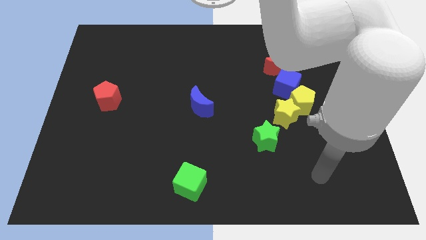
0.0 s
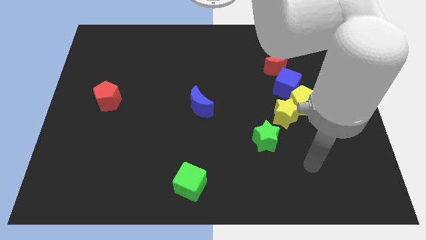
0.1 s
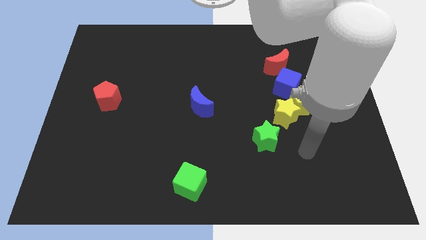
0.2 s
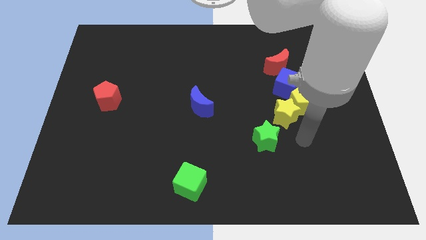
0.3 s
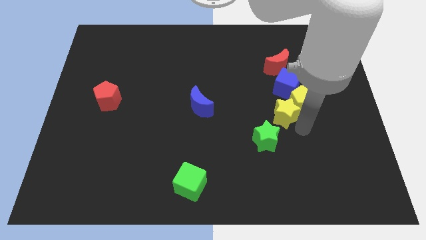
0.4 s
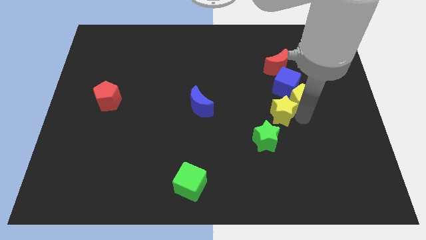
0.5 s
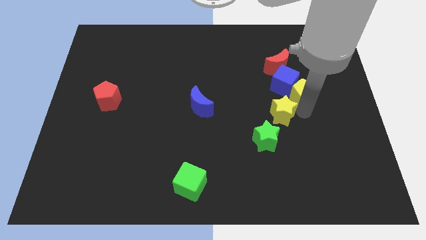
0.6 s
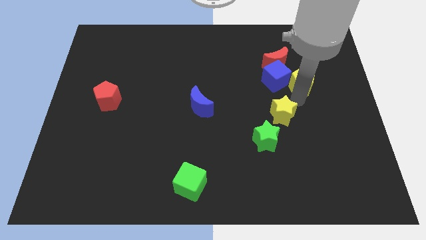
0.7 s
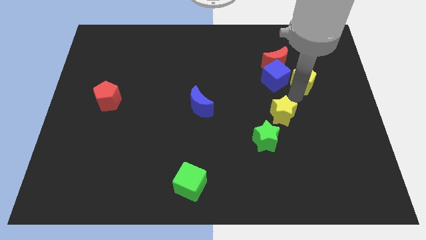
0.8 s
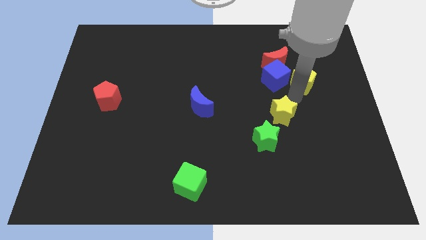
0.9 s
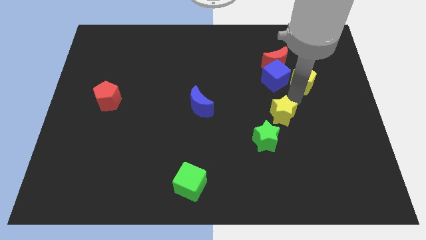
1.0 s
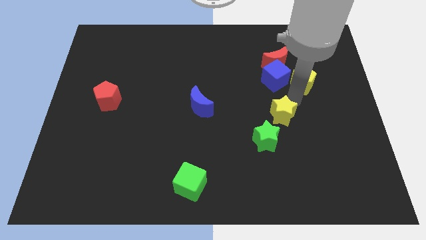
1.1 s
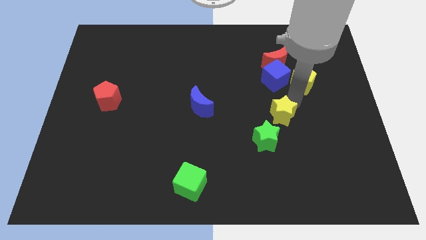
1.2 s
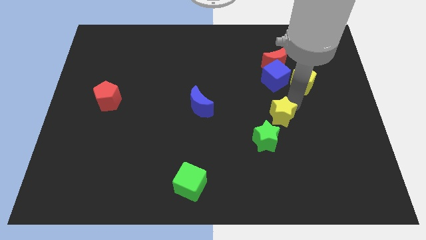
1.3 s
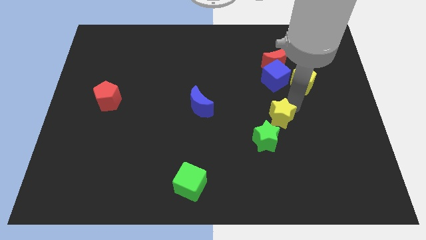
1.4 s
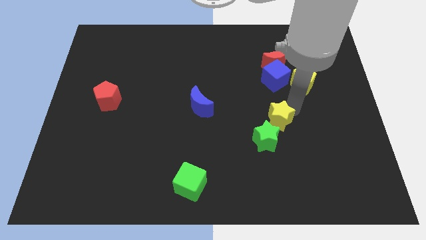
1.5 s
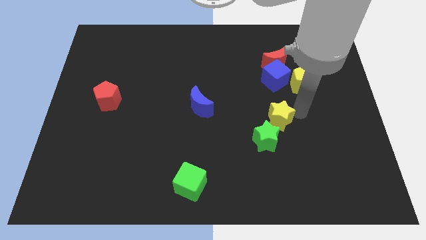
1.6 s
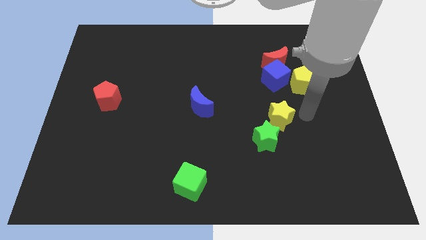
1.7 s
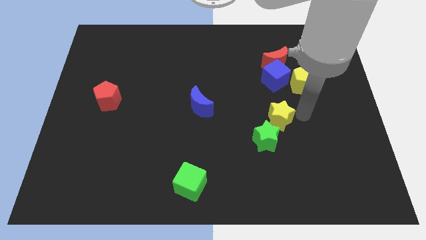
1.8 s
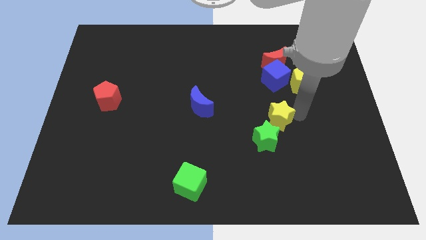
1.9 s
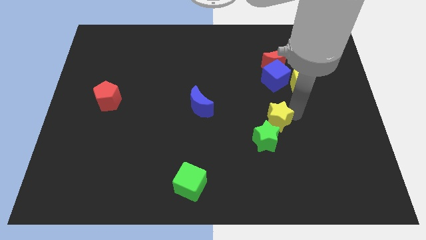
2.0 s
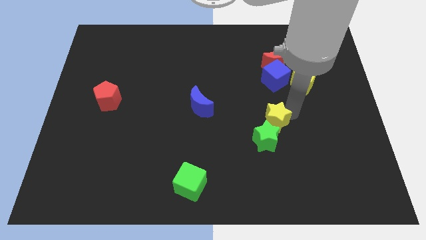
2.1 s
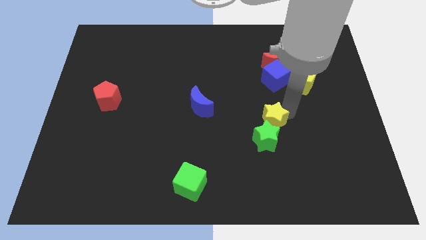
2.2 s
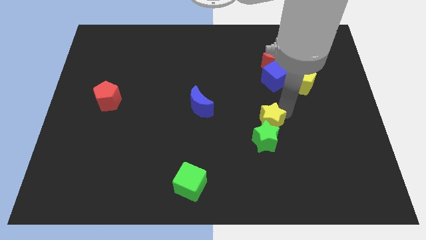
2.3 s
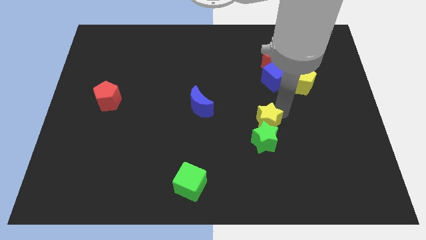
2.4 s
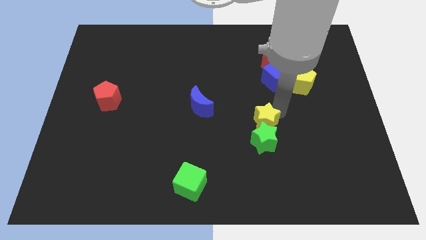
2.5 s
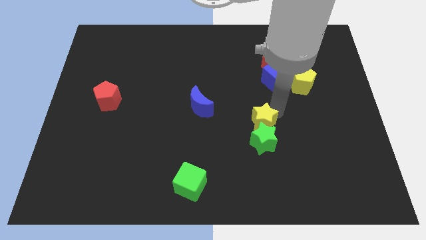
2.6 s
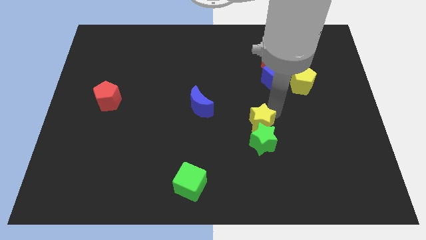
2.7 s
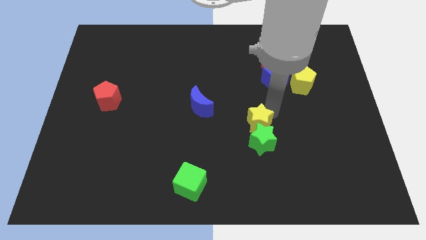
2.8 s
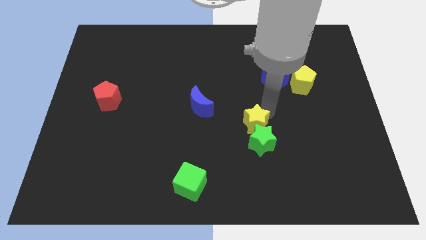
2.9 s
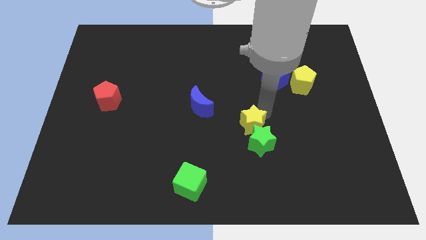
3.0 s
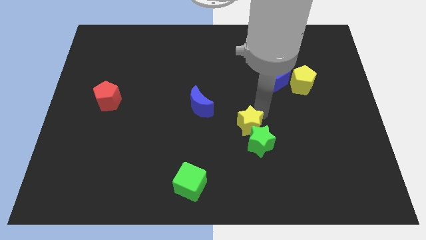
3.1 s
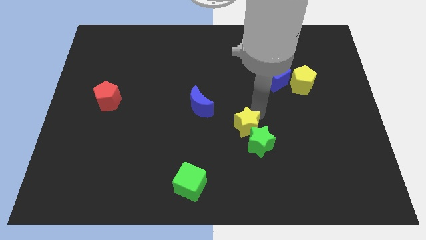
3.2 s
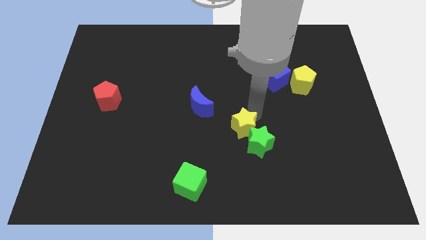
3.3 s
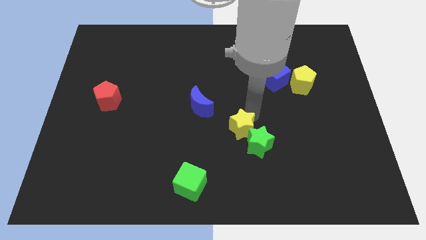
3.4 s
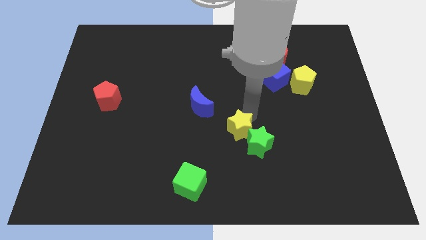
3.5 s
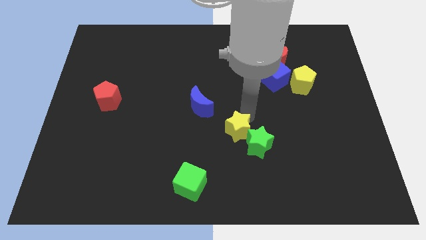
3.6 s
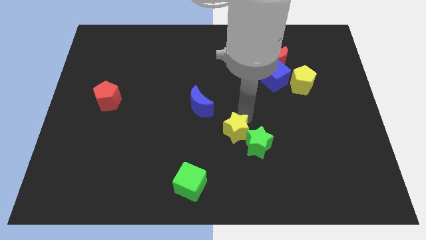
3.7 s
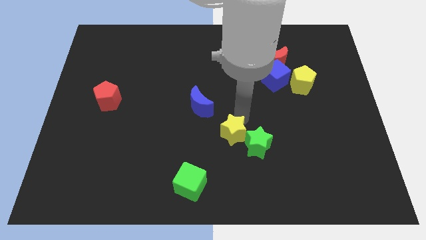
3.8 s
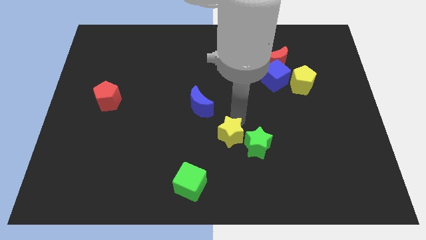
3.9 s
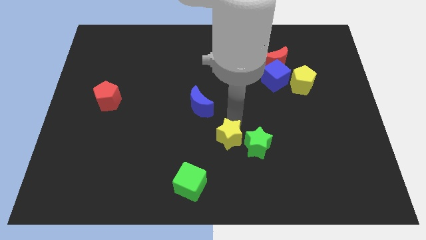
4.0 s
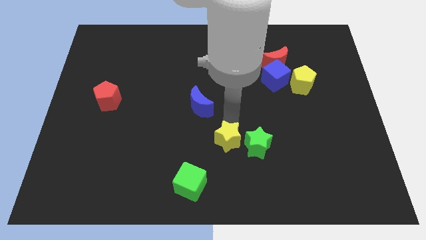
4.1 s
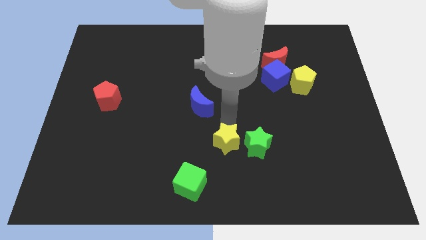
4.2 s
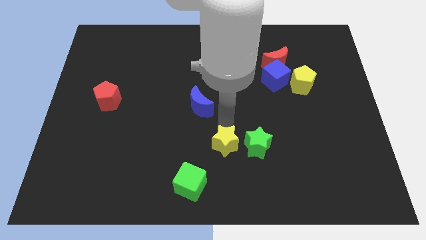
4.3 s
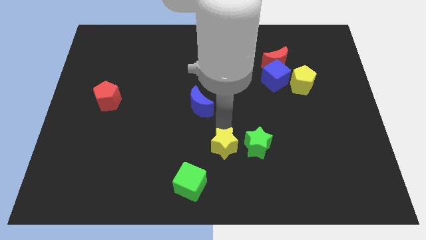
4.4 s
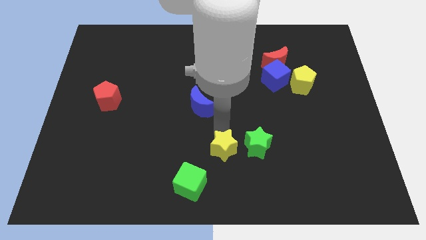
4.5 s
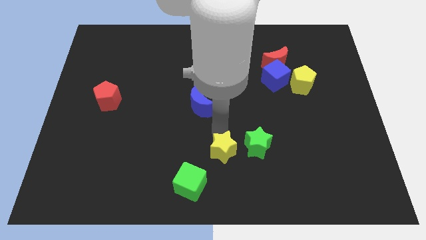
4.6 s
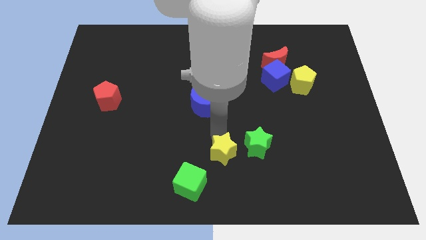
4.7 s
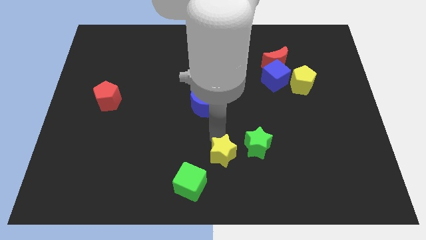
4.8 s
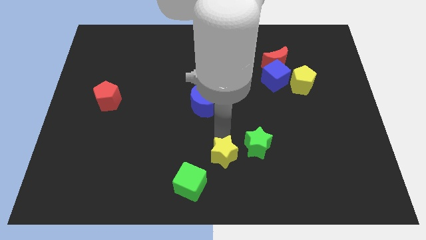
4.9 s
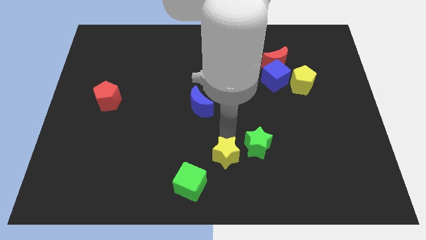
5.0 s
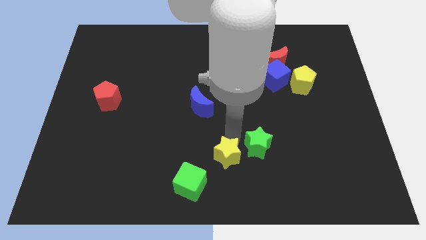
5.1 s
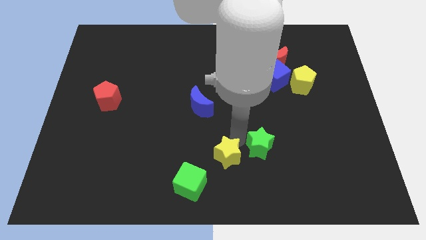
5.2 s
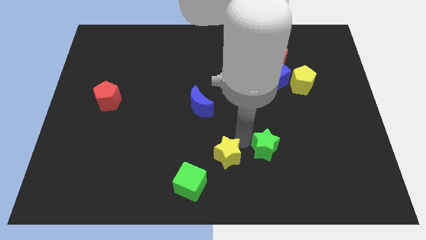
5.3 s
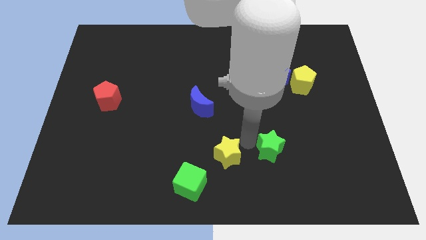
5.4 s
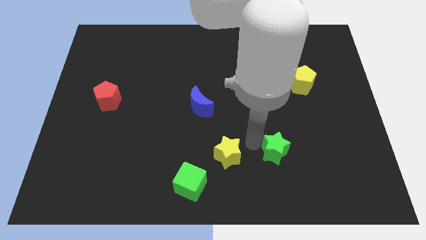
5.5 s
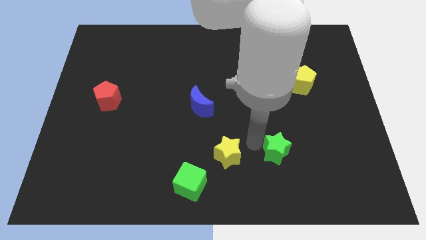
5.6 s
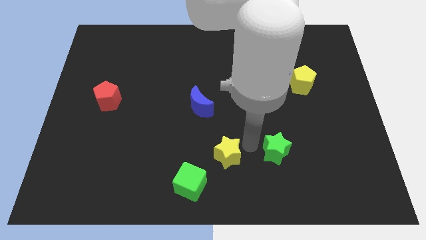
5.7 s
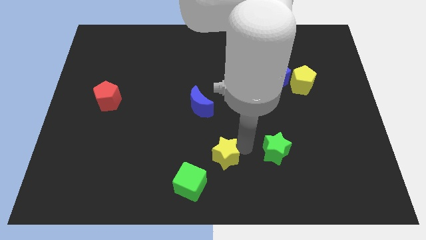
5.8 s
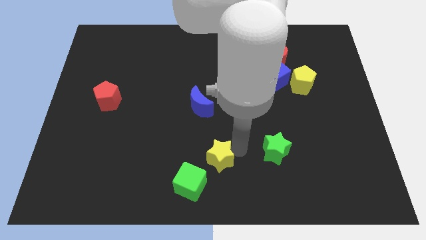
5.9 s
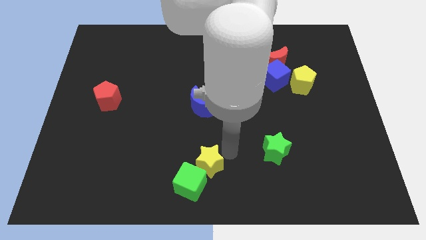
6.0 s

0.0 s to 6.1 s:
put the yellow star next to the green cube
